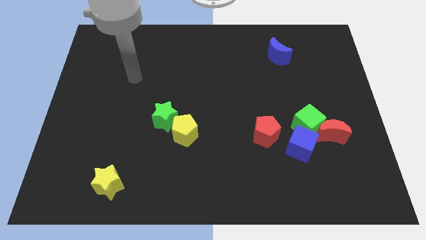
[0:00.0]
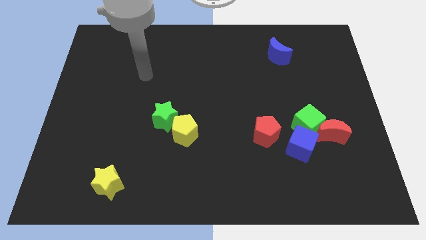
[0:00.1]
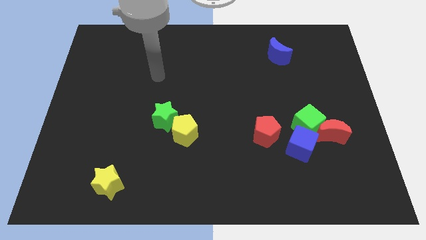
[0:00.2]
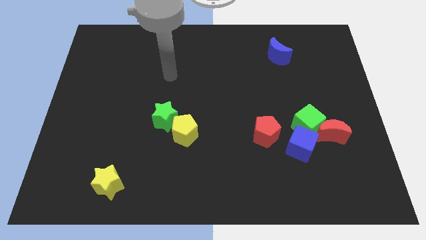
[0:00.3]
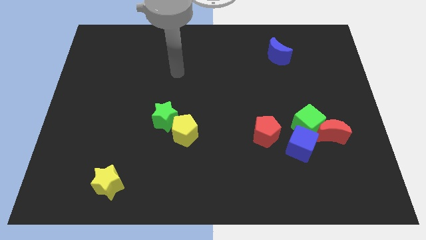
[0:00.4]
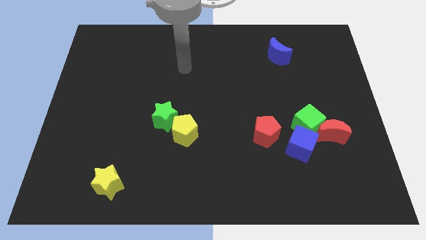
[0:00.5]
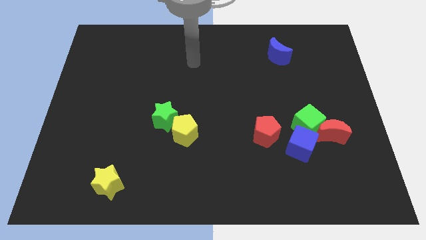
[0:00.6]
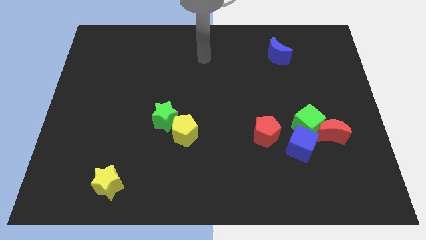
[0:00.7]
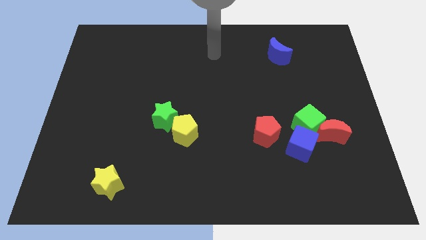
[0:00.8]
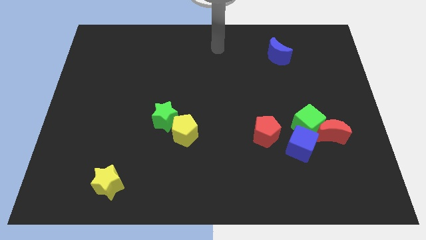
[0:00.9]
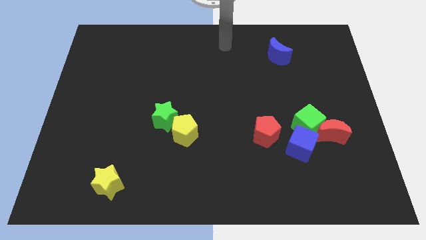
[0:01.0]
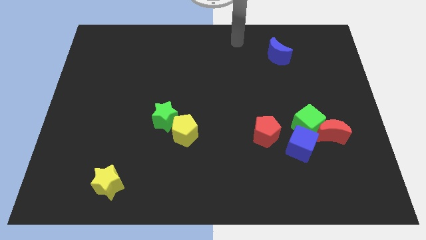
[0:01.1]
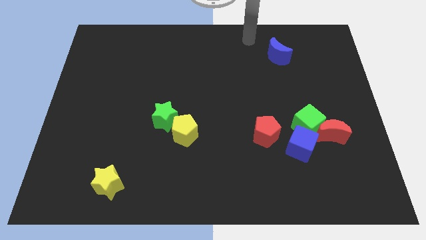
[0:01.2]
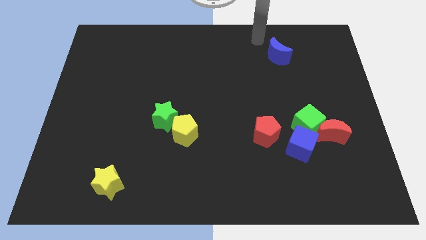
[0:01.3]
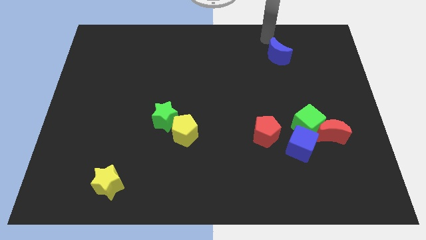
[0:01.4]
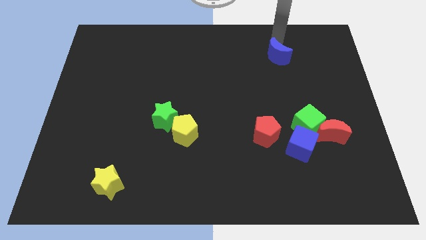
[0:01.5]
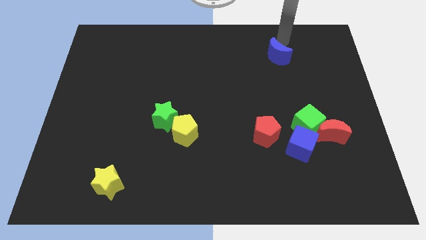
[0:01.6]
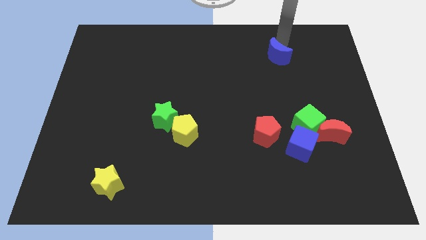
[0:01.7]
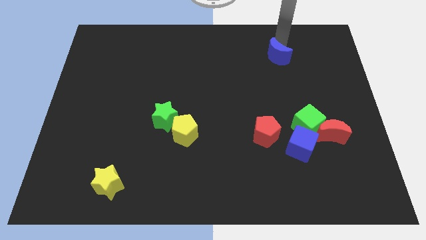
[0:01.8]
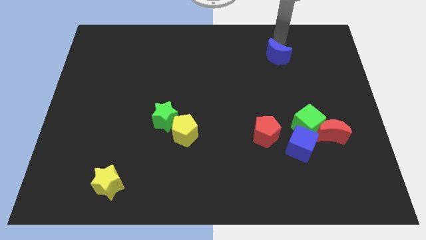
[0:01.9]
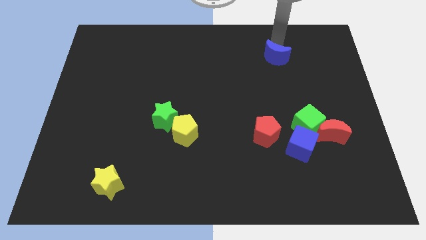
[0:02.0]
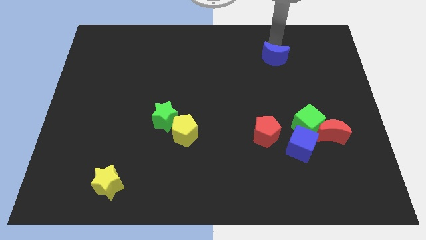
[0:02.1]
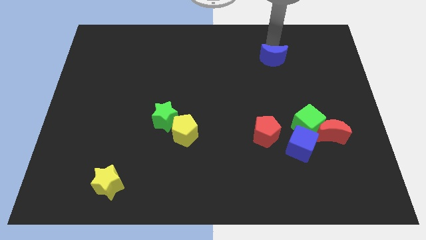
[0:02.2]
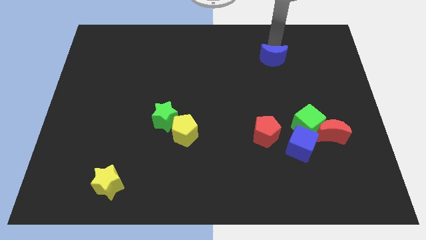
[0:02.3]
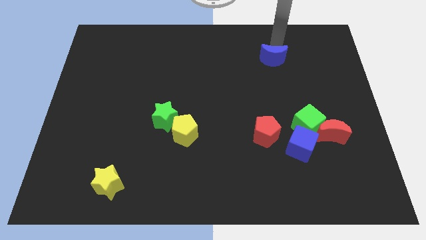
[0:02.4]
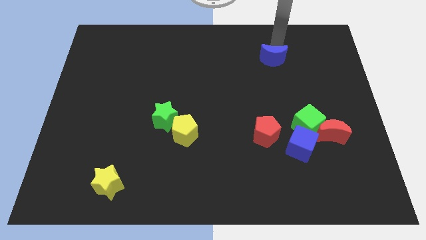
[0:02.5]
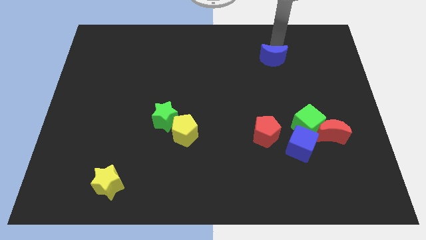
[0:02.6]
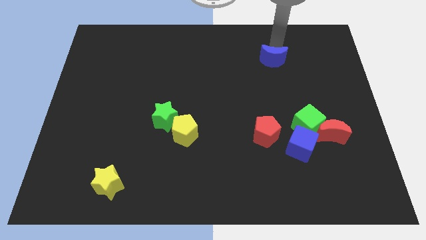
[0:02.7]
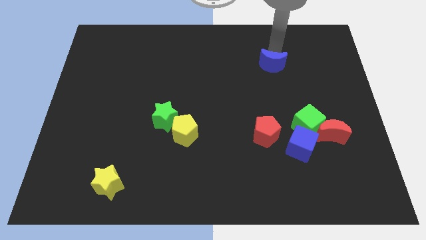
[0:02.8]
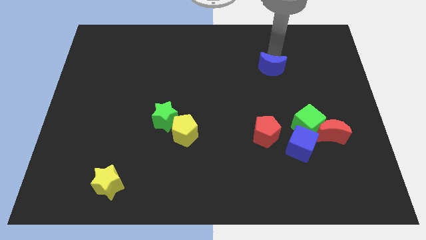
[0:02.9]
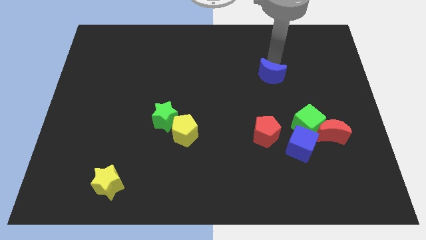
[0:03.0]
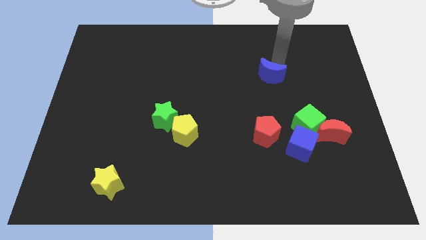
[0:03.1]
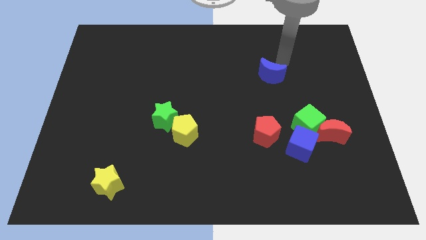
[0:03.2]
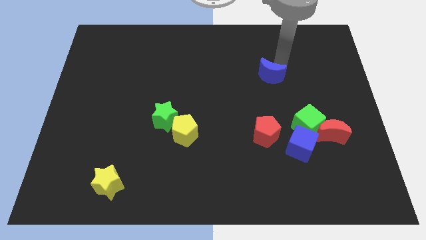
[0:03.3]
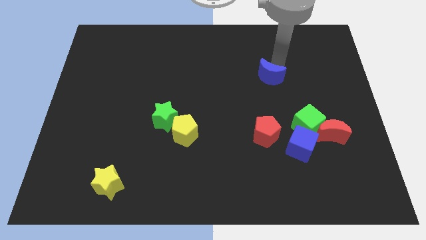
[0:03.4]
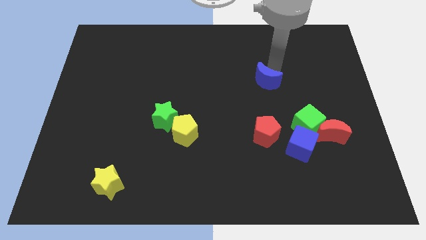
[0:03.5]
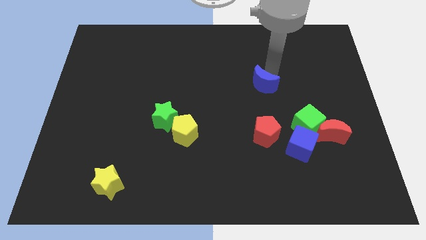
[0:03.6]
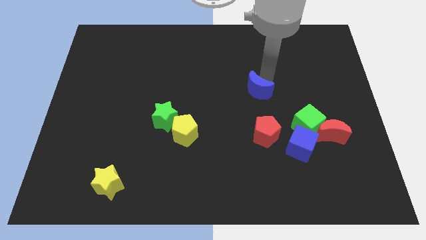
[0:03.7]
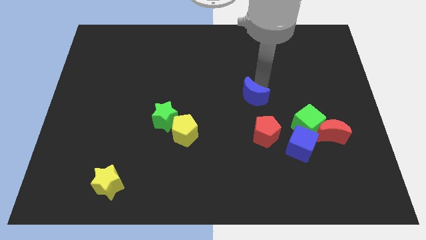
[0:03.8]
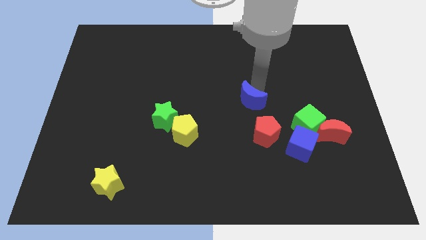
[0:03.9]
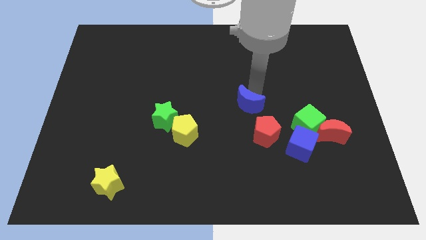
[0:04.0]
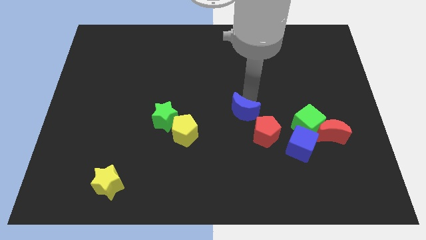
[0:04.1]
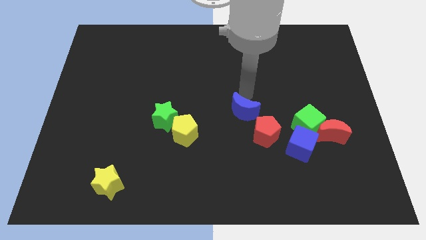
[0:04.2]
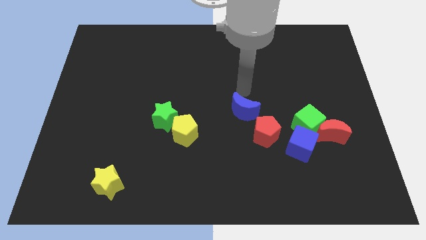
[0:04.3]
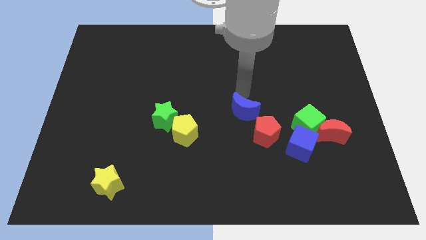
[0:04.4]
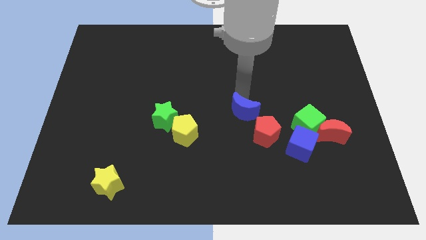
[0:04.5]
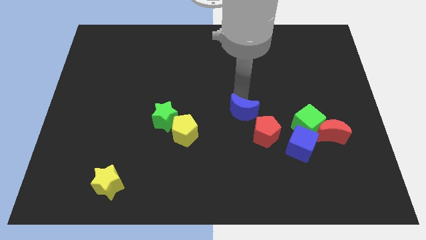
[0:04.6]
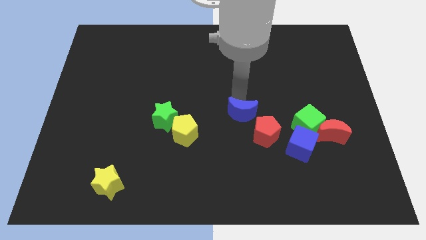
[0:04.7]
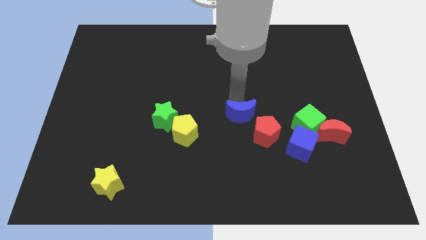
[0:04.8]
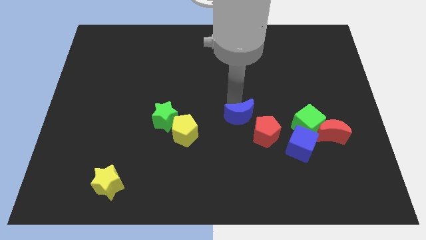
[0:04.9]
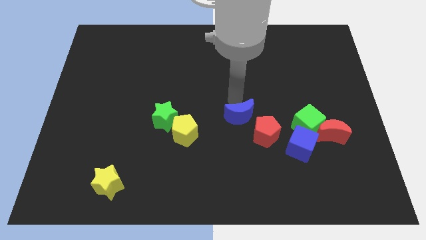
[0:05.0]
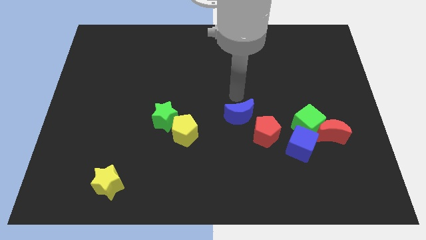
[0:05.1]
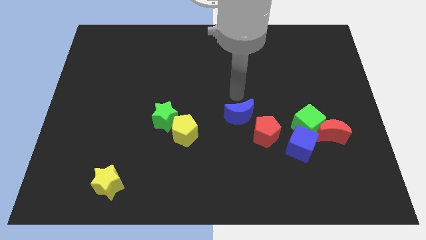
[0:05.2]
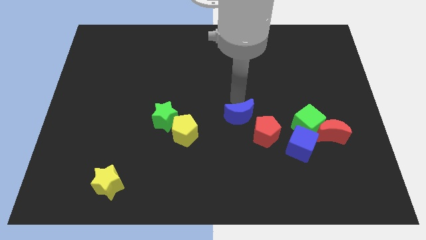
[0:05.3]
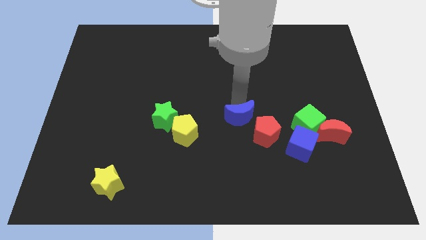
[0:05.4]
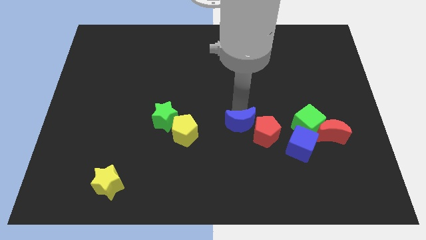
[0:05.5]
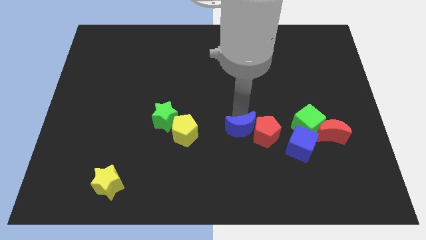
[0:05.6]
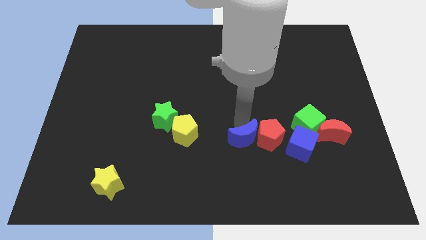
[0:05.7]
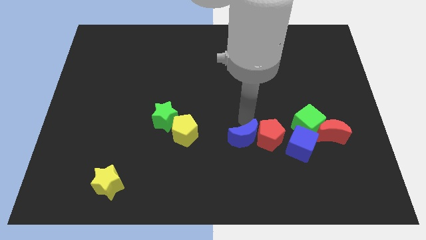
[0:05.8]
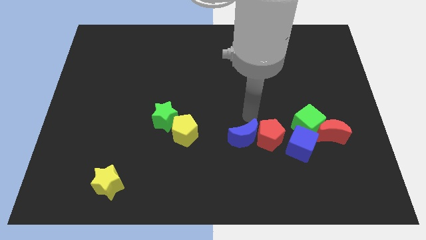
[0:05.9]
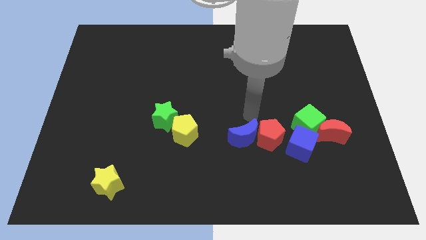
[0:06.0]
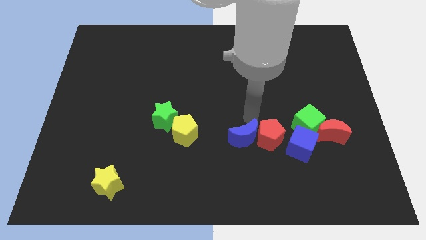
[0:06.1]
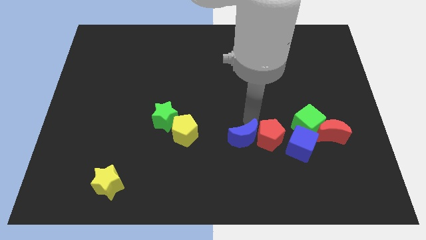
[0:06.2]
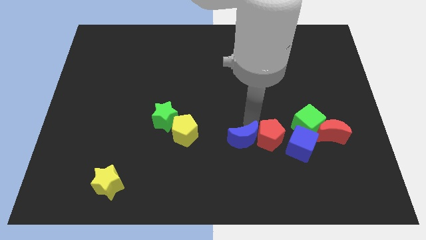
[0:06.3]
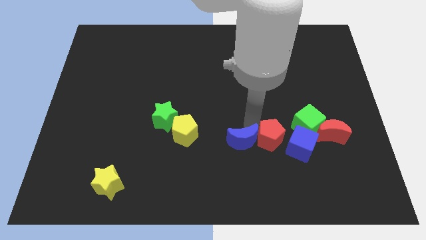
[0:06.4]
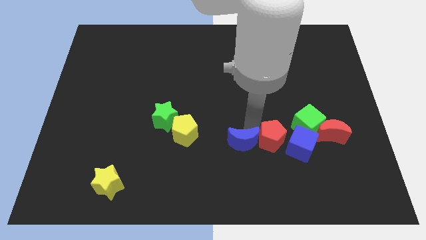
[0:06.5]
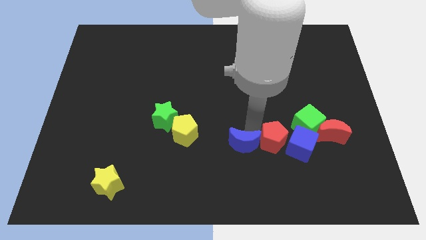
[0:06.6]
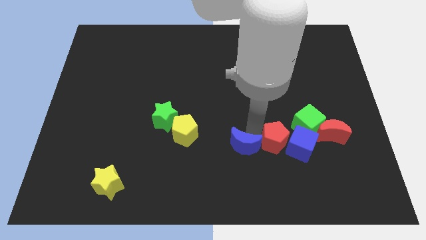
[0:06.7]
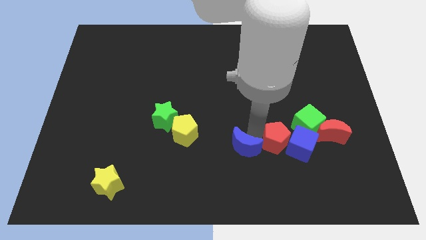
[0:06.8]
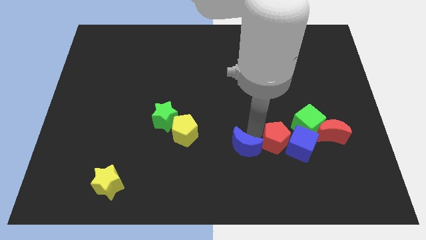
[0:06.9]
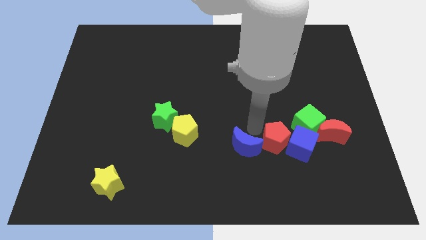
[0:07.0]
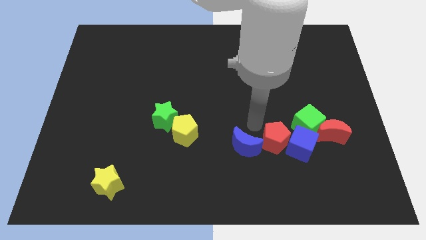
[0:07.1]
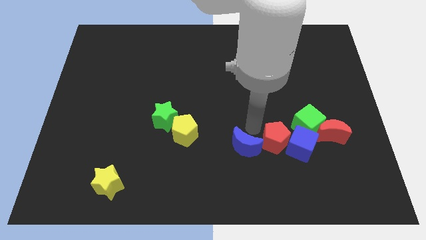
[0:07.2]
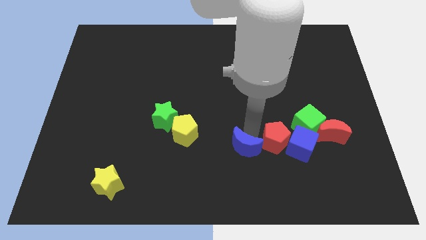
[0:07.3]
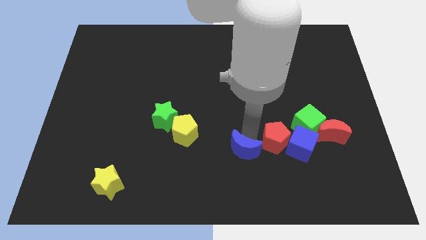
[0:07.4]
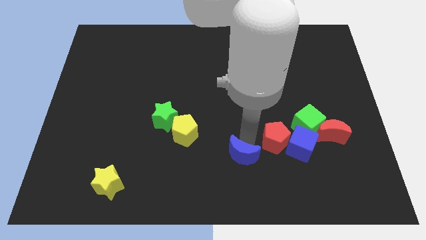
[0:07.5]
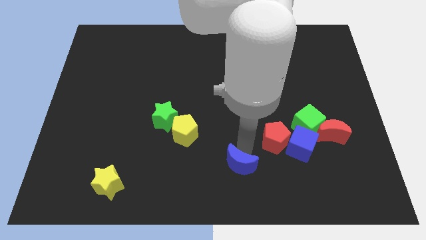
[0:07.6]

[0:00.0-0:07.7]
move the blue moon to the bottom
